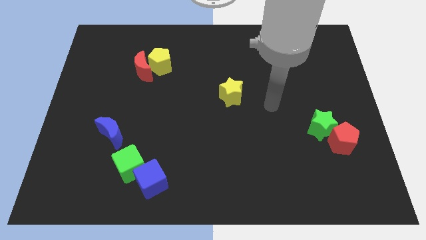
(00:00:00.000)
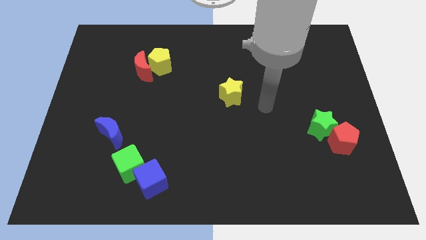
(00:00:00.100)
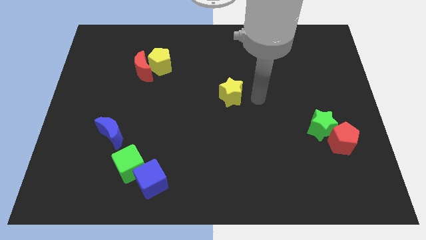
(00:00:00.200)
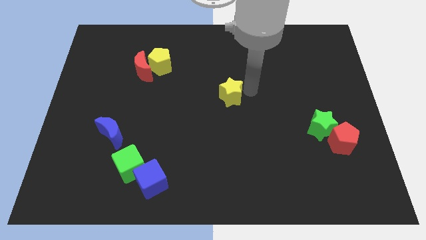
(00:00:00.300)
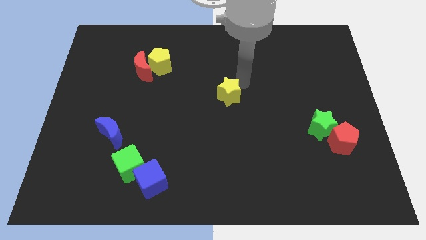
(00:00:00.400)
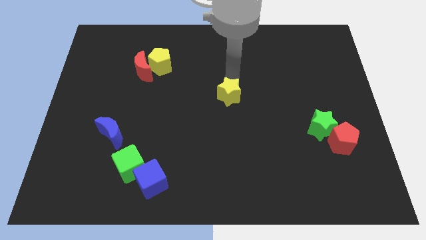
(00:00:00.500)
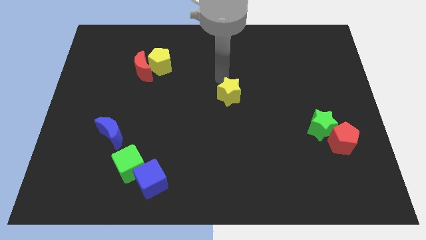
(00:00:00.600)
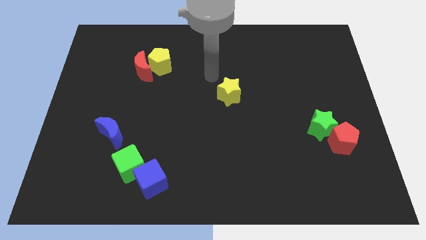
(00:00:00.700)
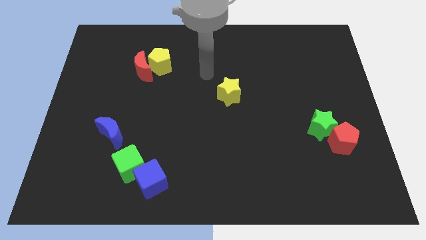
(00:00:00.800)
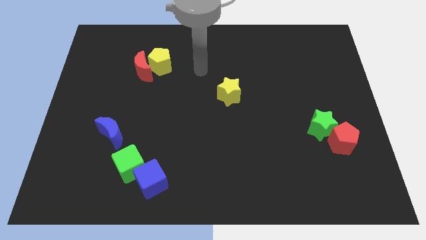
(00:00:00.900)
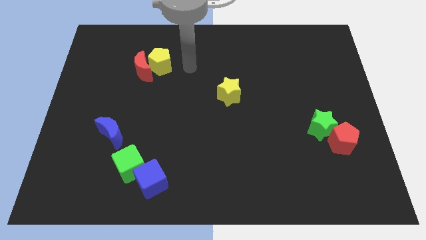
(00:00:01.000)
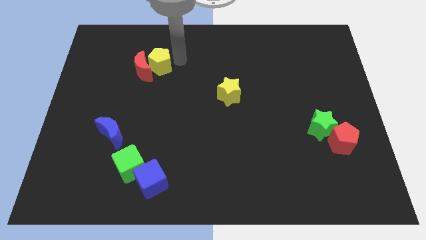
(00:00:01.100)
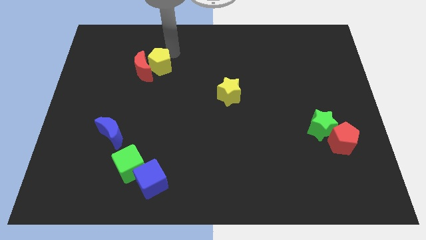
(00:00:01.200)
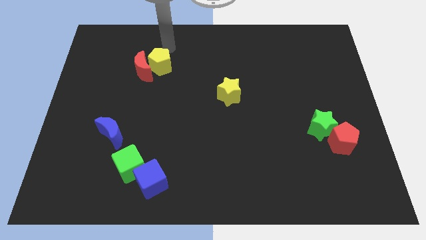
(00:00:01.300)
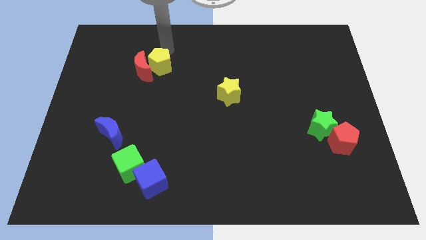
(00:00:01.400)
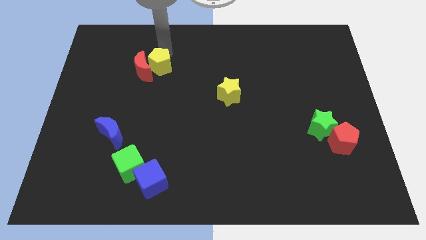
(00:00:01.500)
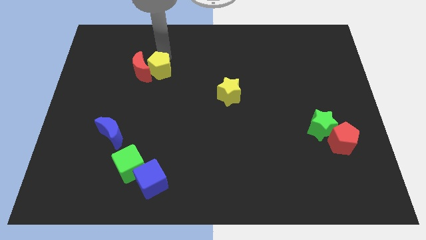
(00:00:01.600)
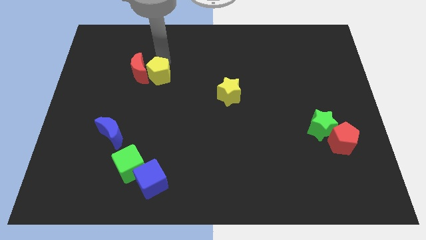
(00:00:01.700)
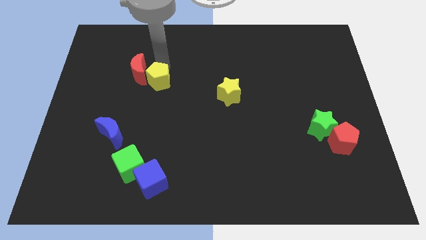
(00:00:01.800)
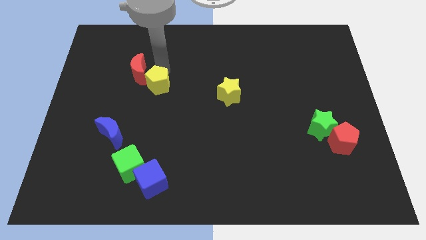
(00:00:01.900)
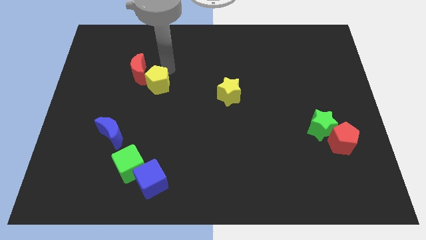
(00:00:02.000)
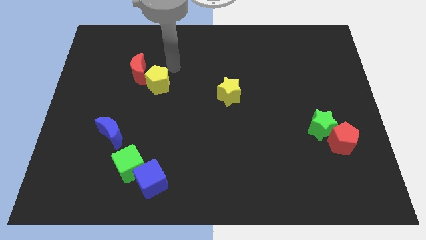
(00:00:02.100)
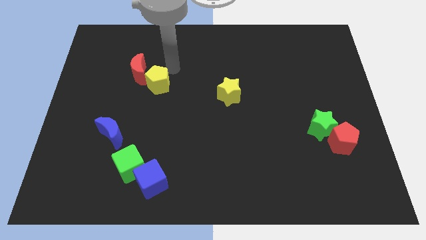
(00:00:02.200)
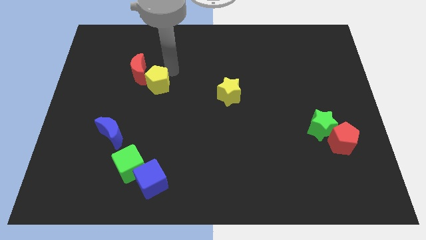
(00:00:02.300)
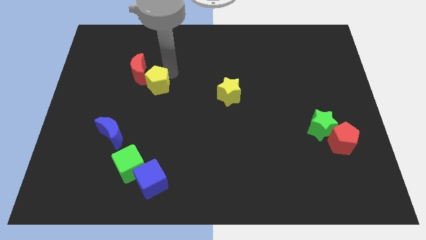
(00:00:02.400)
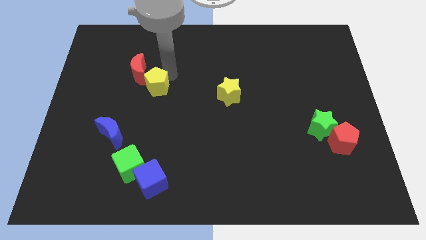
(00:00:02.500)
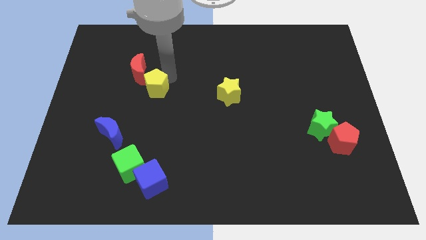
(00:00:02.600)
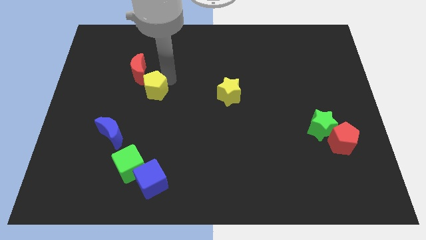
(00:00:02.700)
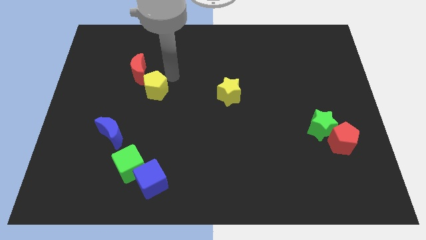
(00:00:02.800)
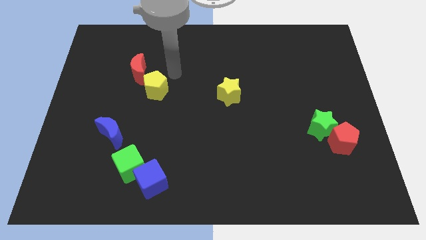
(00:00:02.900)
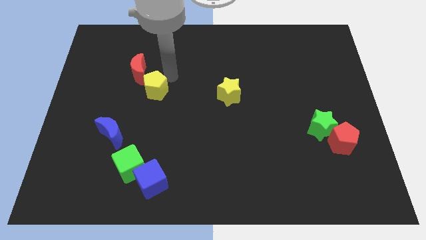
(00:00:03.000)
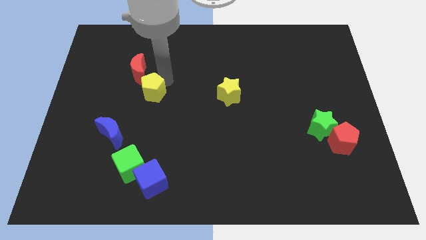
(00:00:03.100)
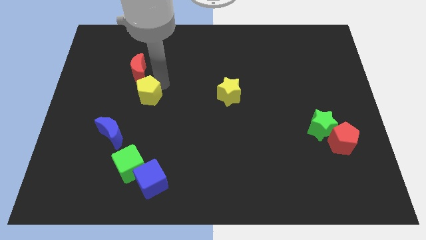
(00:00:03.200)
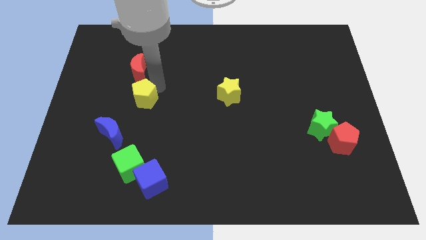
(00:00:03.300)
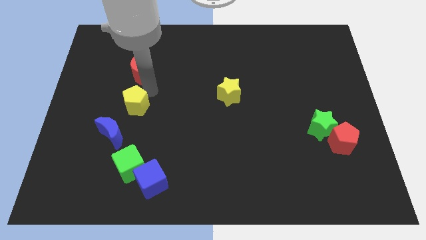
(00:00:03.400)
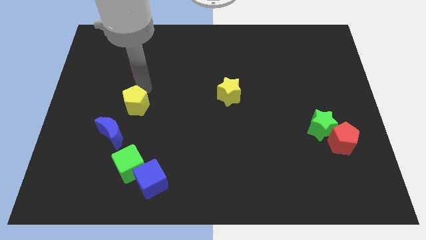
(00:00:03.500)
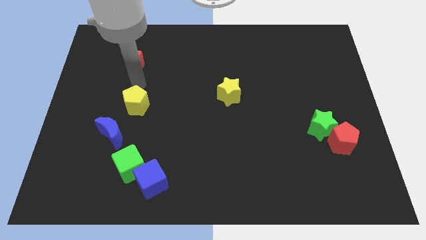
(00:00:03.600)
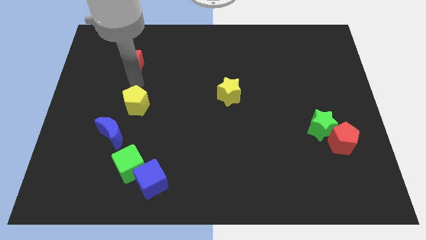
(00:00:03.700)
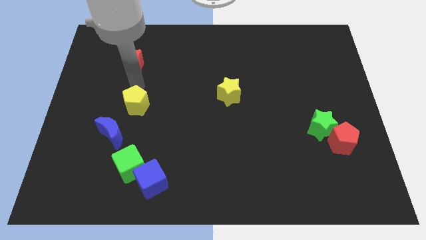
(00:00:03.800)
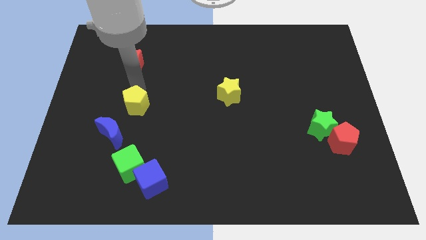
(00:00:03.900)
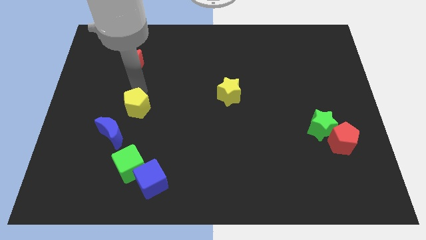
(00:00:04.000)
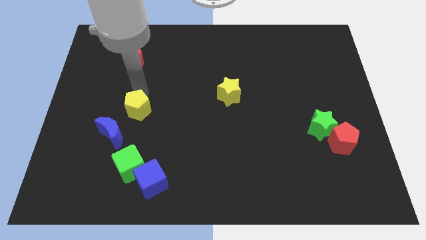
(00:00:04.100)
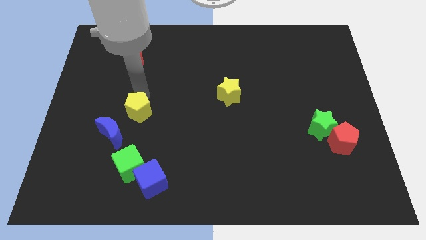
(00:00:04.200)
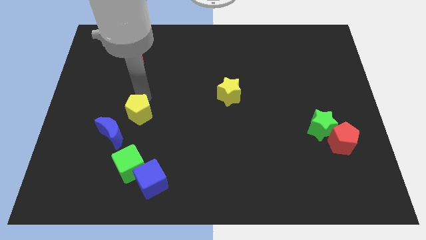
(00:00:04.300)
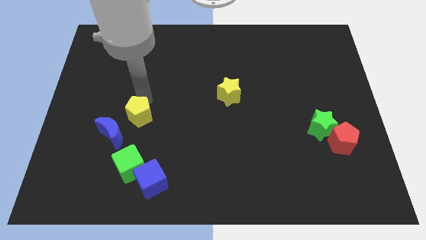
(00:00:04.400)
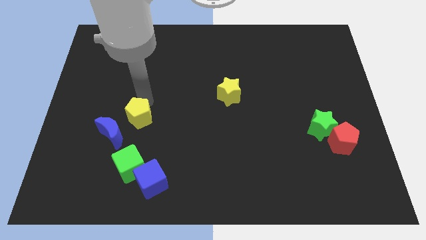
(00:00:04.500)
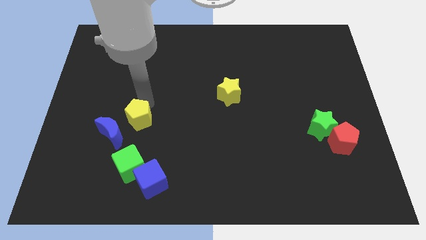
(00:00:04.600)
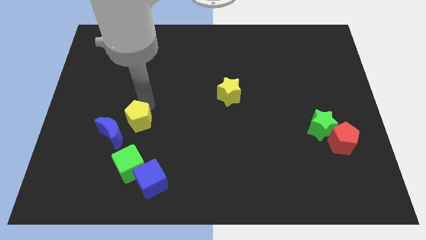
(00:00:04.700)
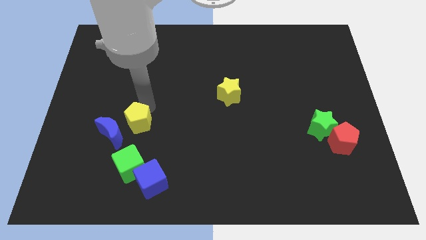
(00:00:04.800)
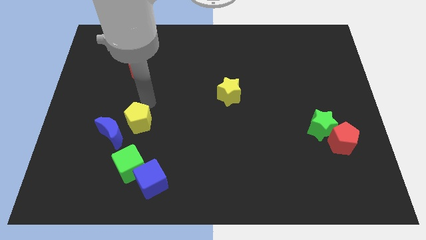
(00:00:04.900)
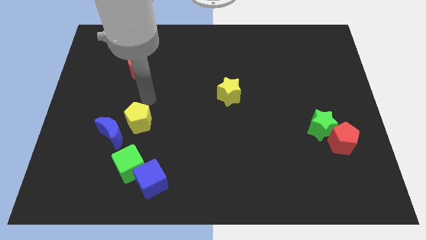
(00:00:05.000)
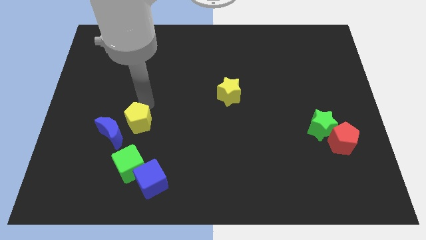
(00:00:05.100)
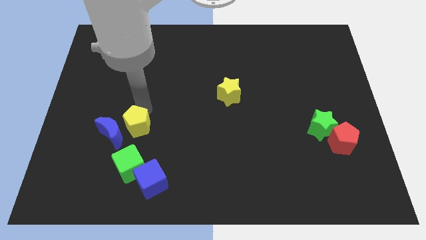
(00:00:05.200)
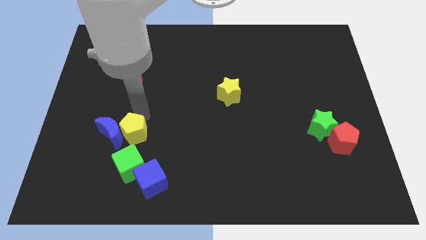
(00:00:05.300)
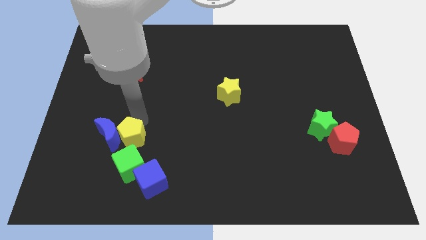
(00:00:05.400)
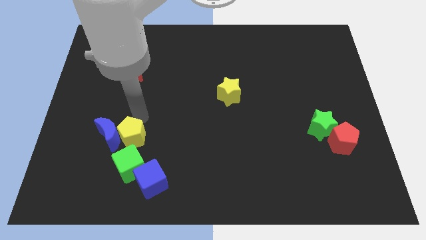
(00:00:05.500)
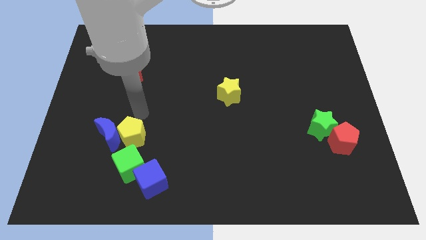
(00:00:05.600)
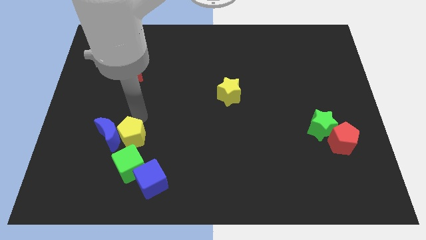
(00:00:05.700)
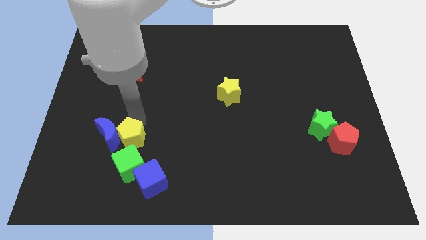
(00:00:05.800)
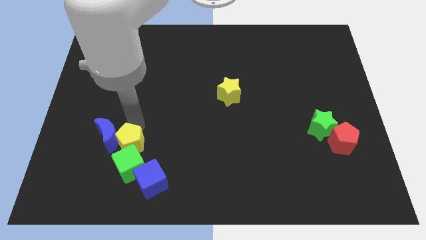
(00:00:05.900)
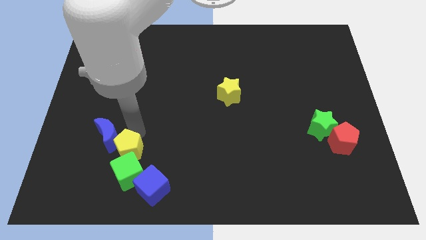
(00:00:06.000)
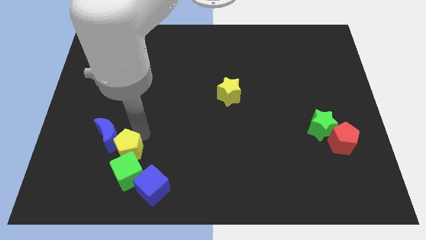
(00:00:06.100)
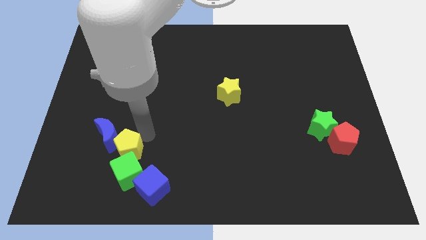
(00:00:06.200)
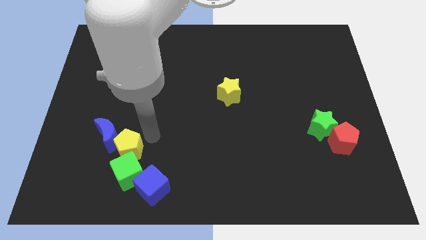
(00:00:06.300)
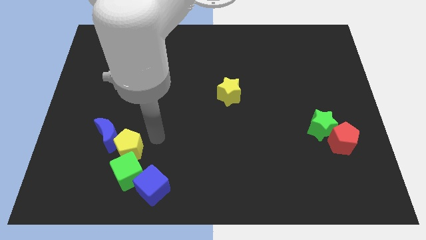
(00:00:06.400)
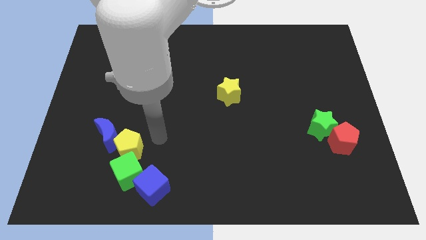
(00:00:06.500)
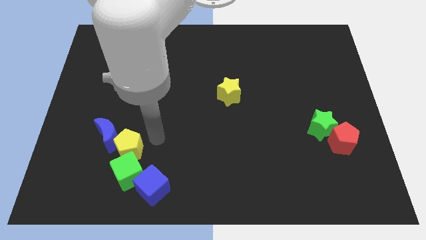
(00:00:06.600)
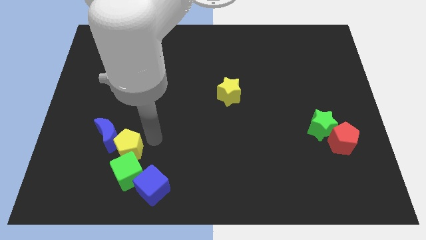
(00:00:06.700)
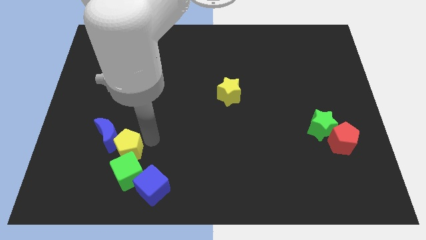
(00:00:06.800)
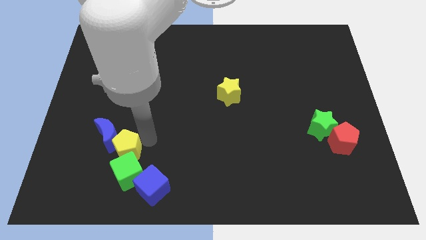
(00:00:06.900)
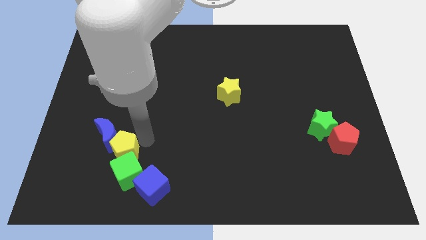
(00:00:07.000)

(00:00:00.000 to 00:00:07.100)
move the yellow pentagon below the blue moon
